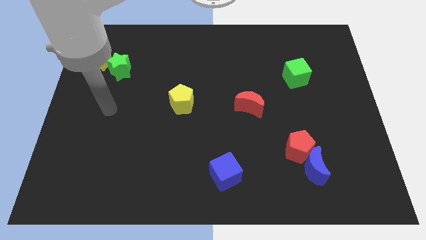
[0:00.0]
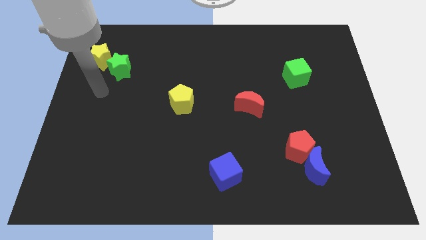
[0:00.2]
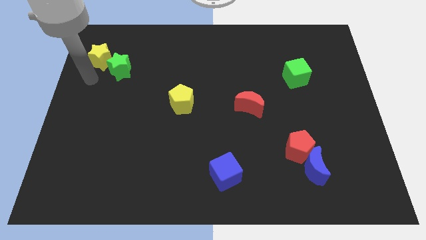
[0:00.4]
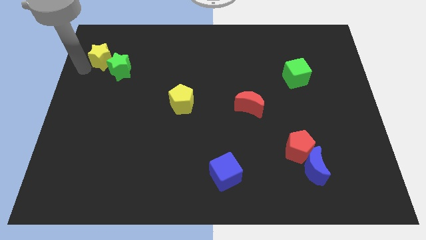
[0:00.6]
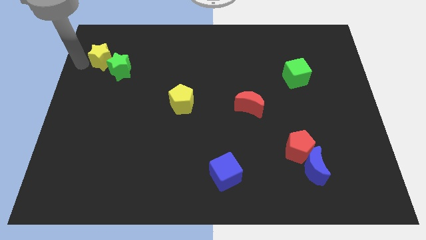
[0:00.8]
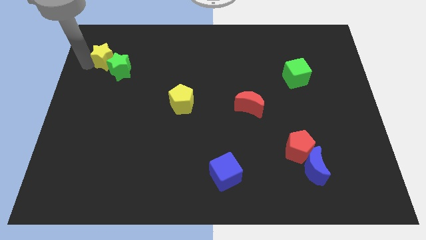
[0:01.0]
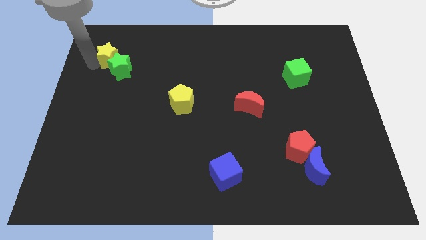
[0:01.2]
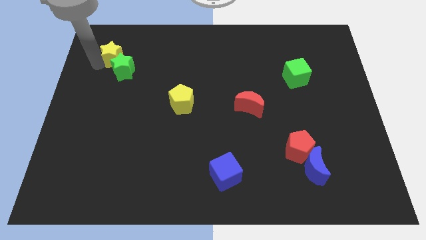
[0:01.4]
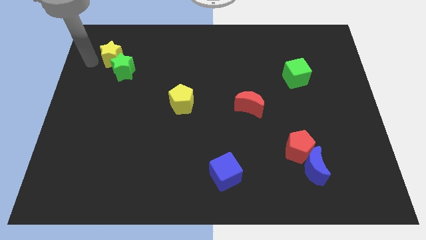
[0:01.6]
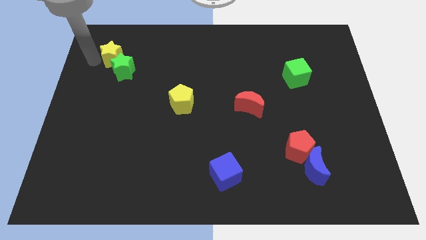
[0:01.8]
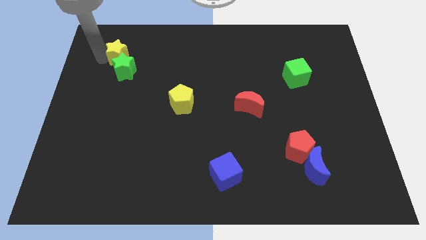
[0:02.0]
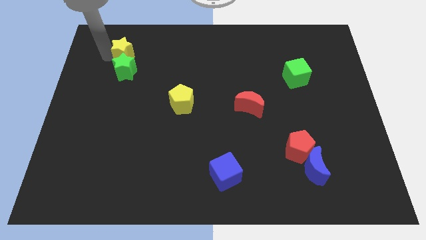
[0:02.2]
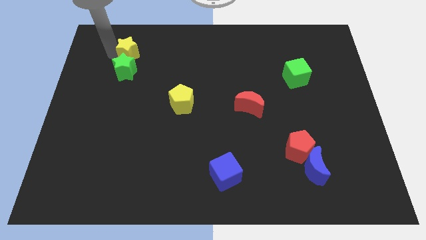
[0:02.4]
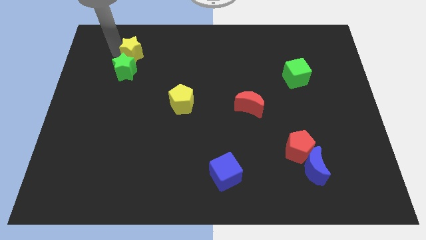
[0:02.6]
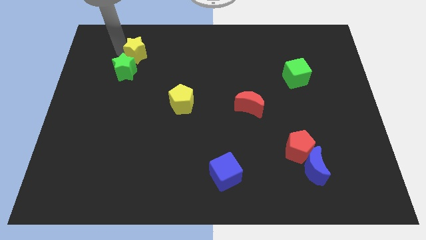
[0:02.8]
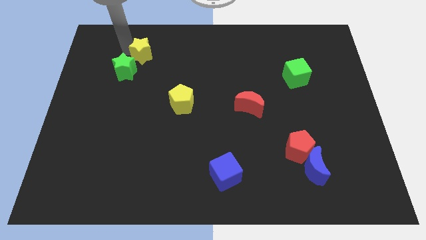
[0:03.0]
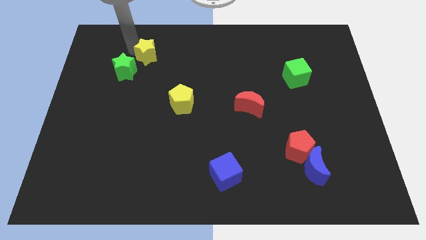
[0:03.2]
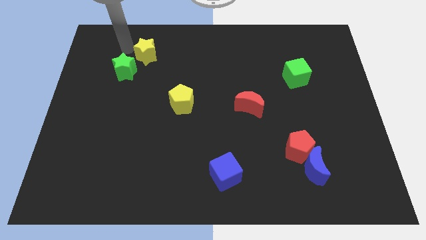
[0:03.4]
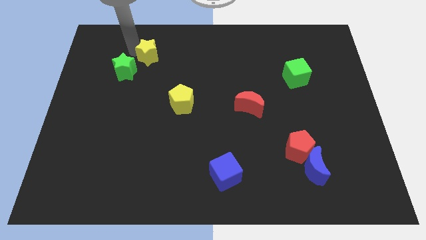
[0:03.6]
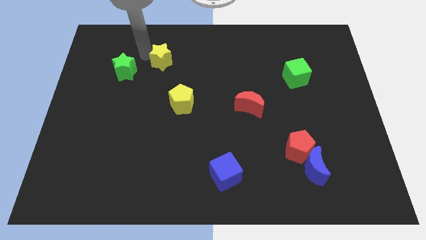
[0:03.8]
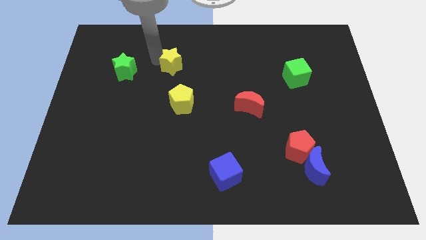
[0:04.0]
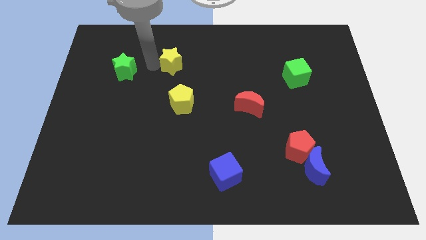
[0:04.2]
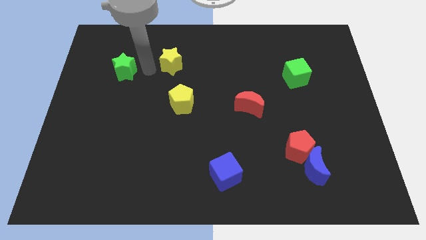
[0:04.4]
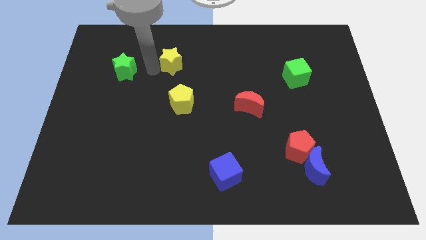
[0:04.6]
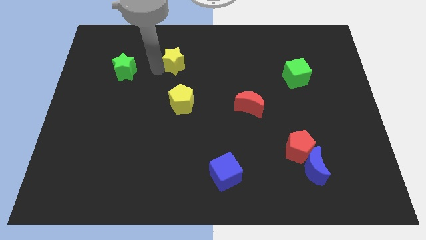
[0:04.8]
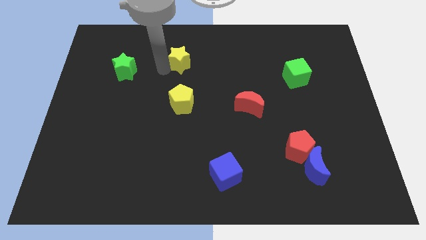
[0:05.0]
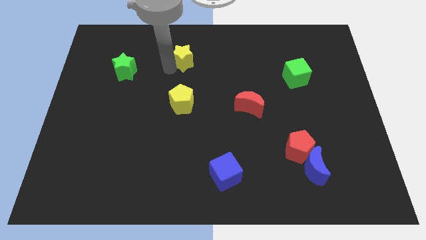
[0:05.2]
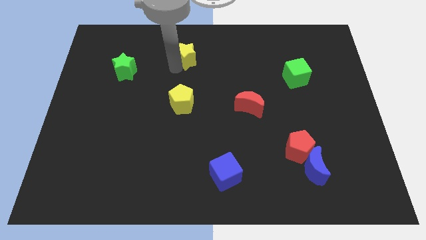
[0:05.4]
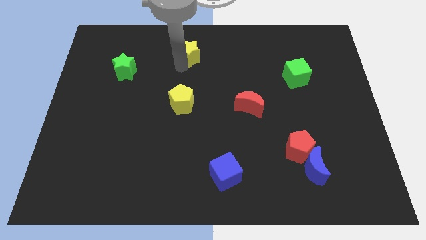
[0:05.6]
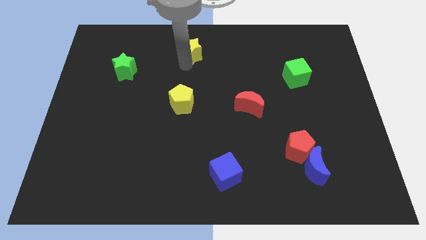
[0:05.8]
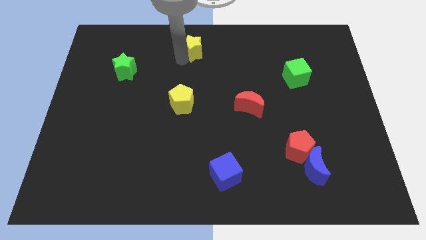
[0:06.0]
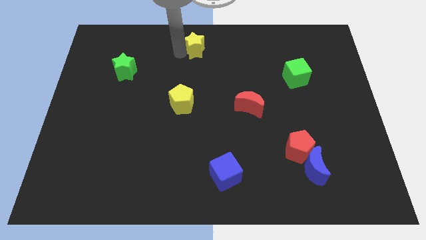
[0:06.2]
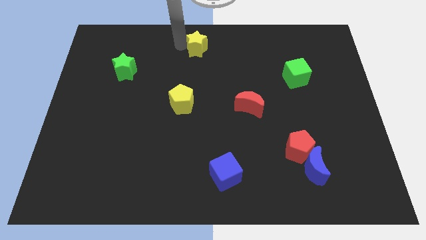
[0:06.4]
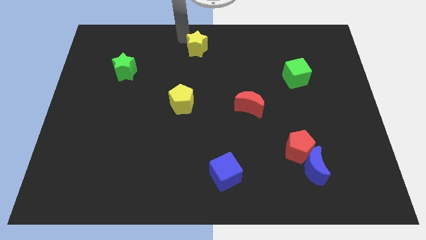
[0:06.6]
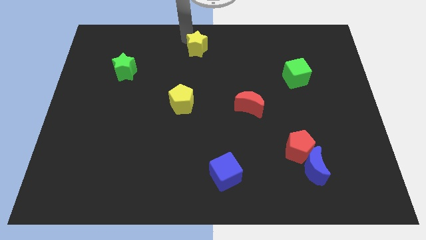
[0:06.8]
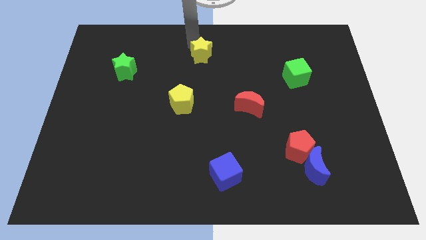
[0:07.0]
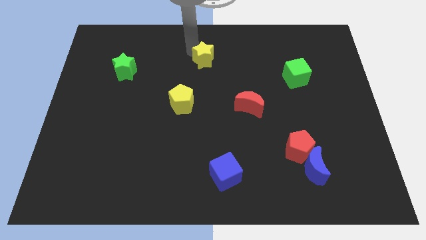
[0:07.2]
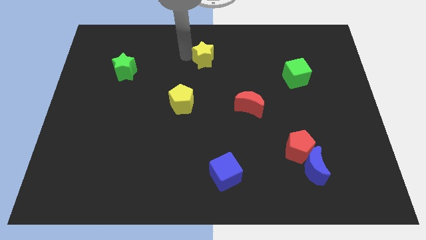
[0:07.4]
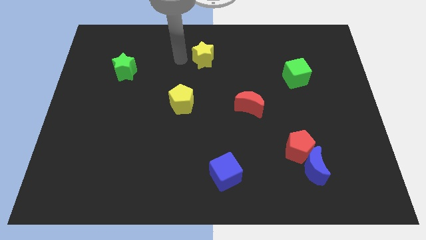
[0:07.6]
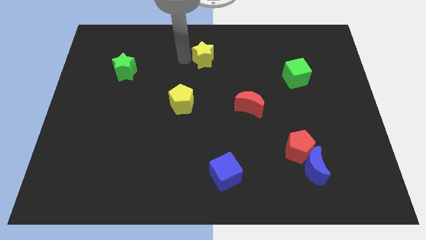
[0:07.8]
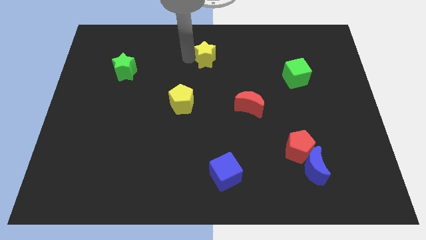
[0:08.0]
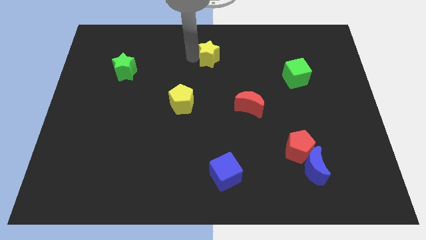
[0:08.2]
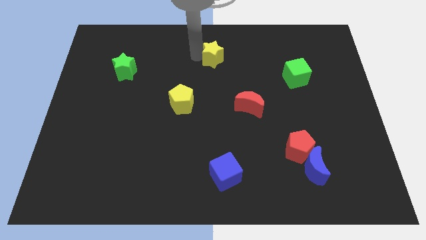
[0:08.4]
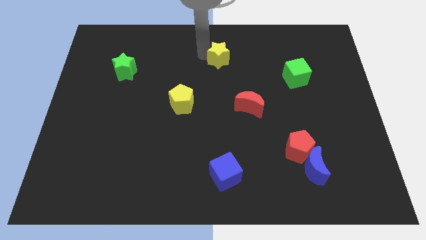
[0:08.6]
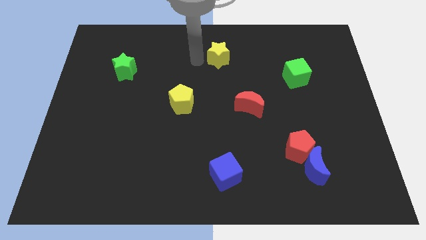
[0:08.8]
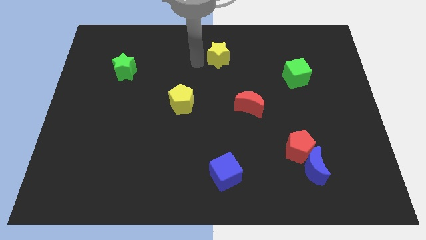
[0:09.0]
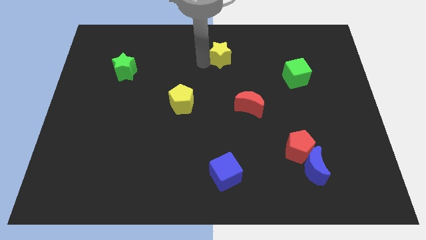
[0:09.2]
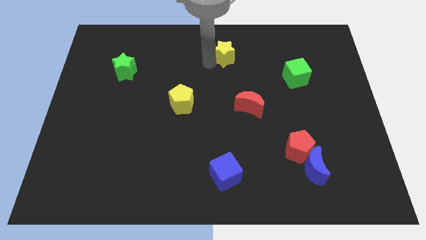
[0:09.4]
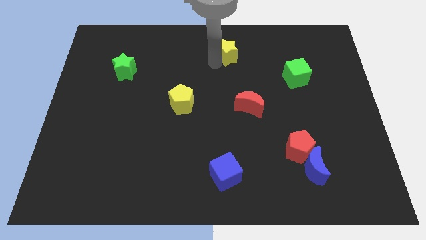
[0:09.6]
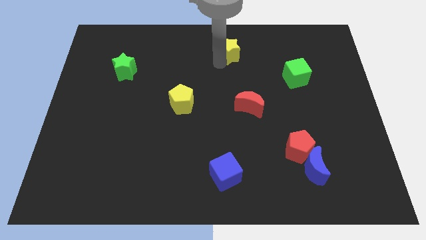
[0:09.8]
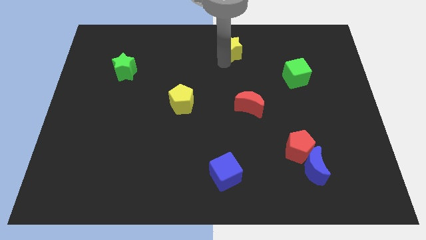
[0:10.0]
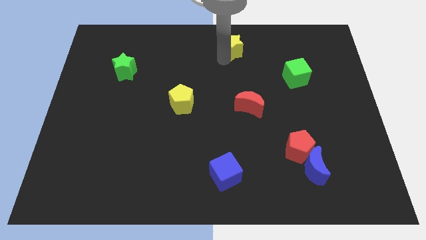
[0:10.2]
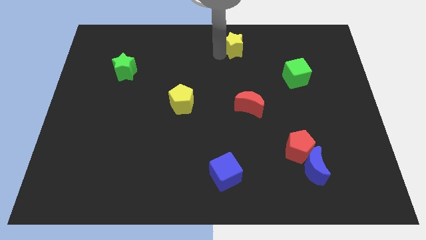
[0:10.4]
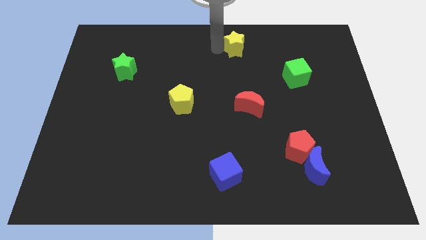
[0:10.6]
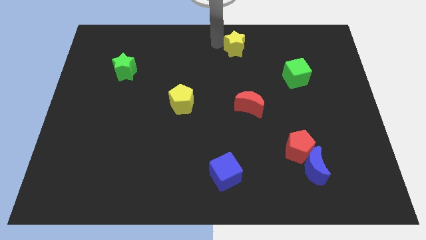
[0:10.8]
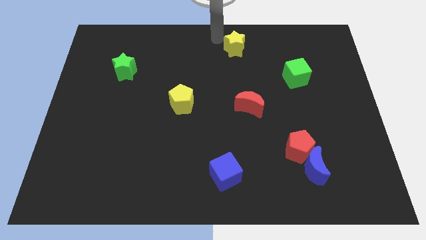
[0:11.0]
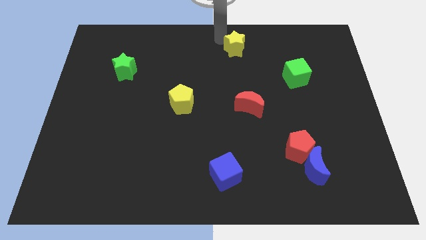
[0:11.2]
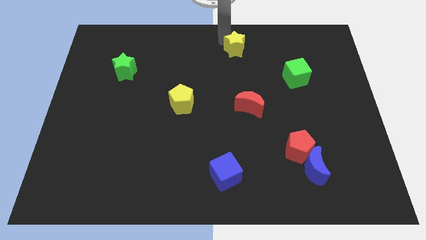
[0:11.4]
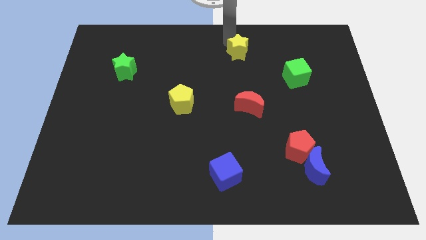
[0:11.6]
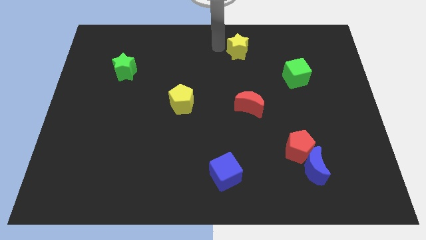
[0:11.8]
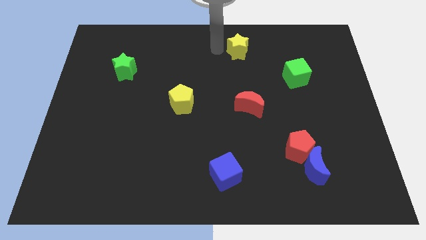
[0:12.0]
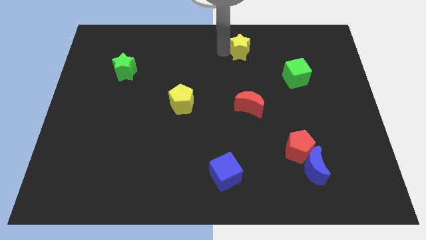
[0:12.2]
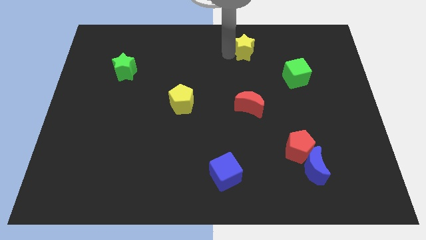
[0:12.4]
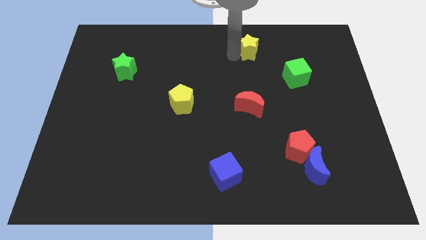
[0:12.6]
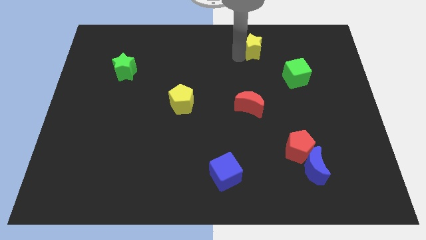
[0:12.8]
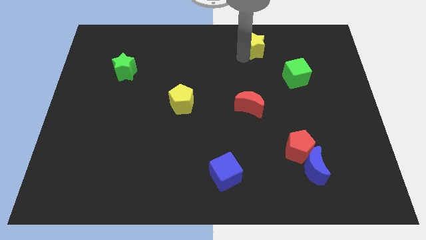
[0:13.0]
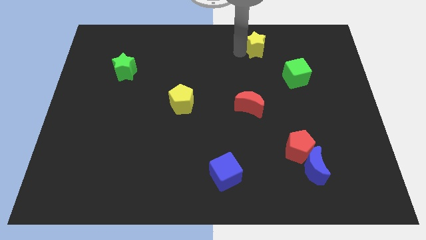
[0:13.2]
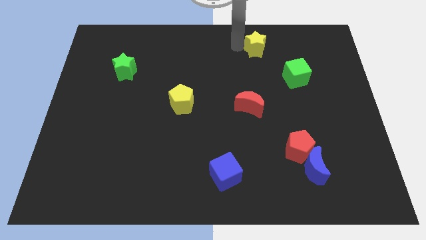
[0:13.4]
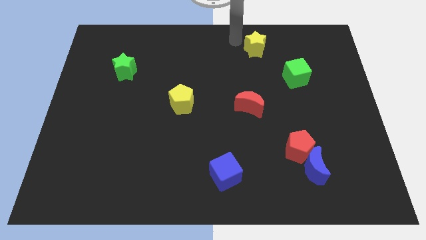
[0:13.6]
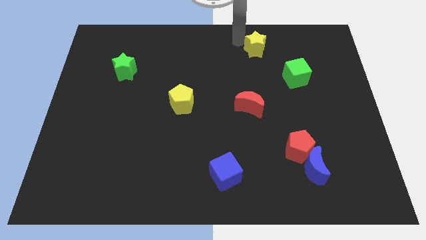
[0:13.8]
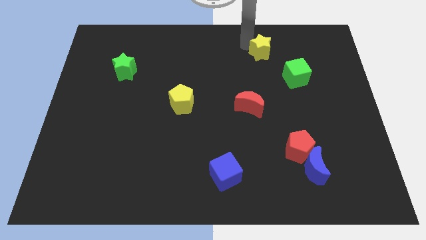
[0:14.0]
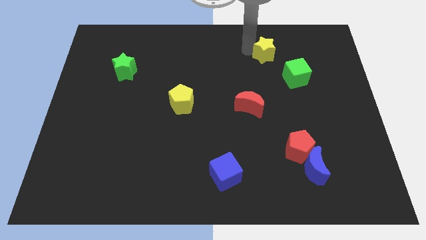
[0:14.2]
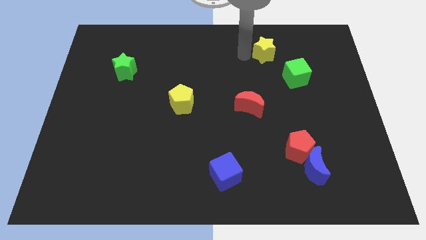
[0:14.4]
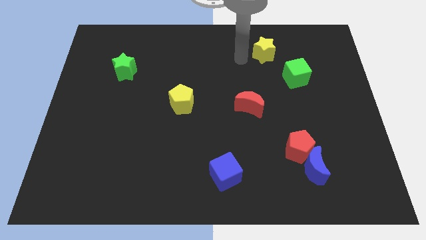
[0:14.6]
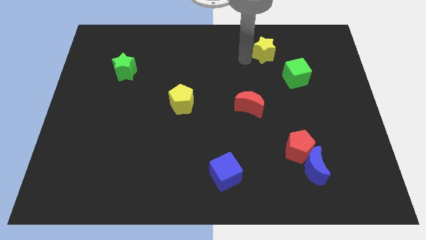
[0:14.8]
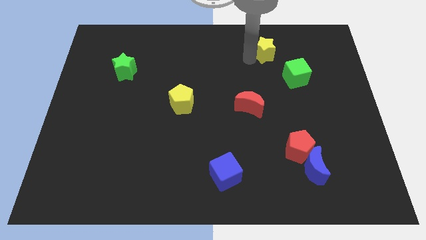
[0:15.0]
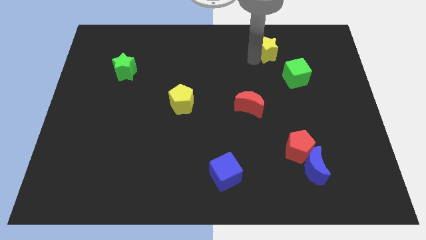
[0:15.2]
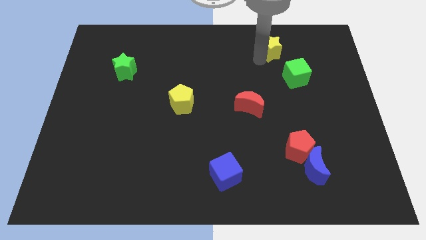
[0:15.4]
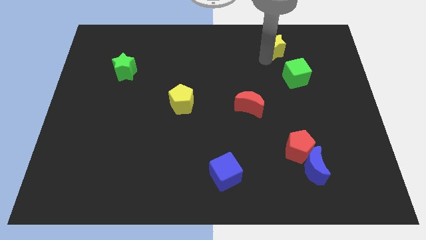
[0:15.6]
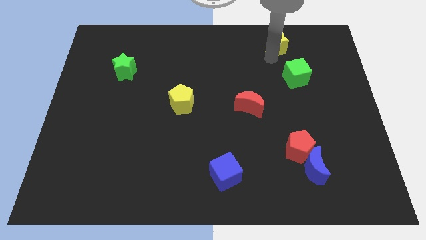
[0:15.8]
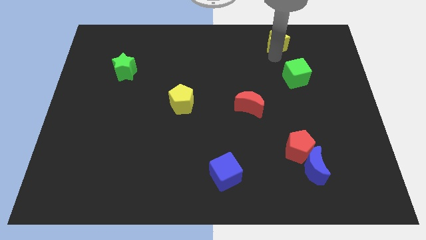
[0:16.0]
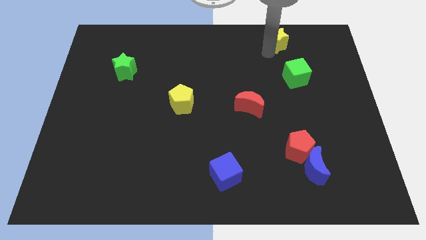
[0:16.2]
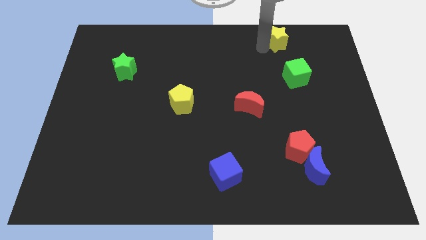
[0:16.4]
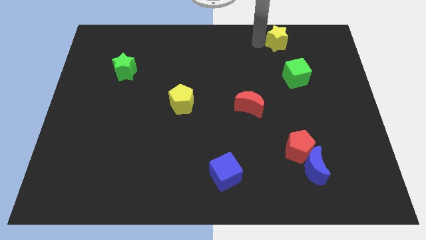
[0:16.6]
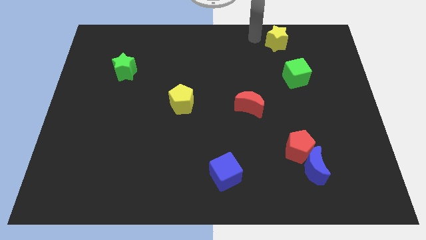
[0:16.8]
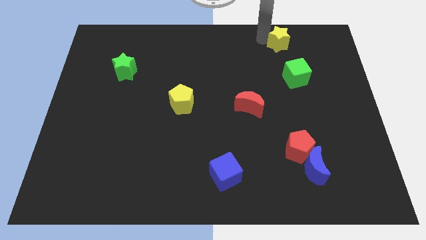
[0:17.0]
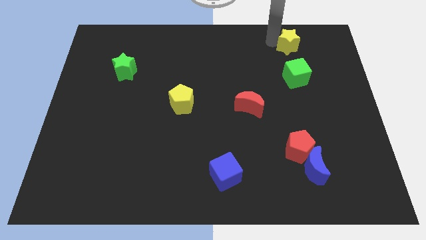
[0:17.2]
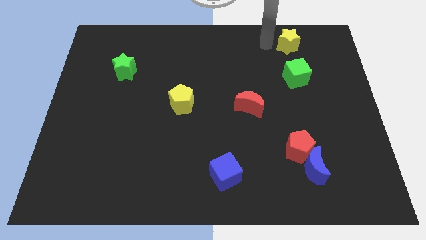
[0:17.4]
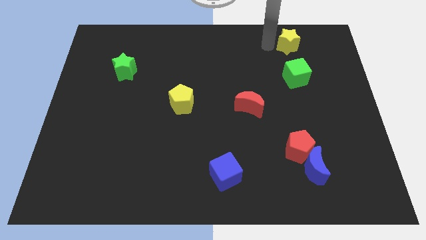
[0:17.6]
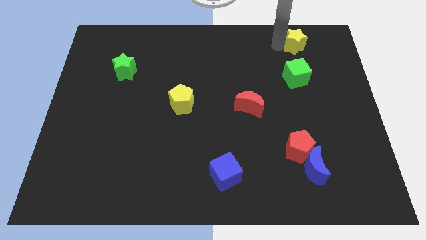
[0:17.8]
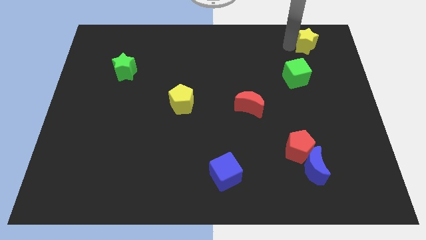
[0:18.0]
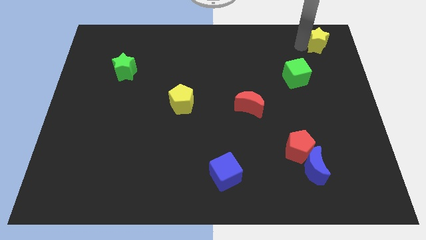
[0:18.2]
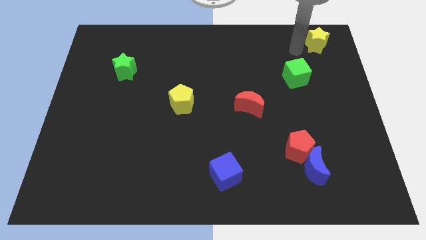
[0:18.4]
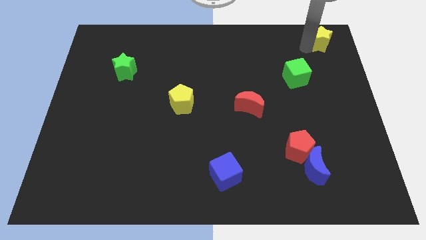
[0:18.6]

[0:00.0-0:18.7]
move the yellow star to the top right
